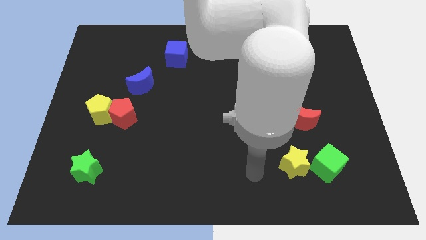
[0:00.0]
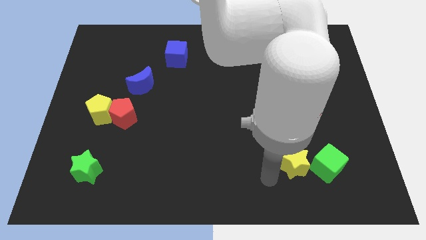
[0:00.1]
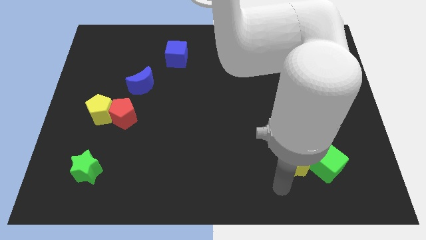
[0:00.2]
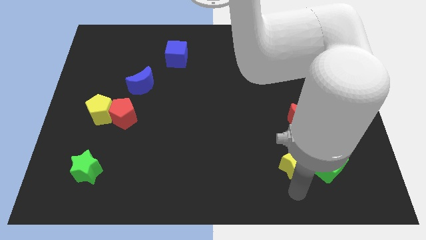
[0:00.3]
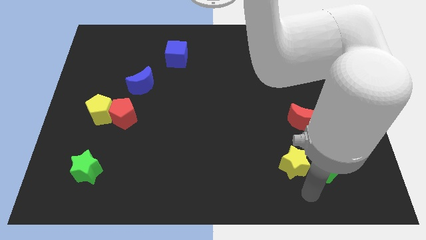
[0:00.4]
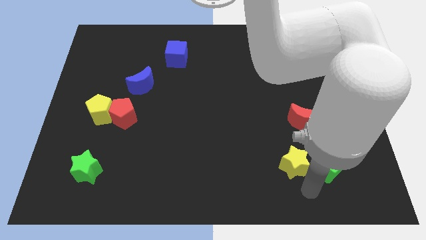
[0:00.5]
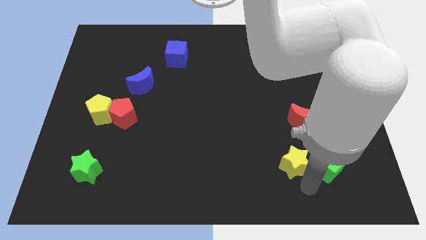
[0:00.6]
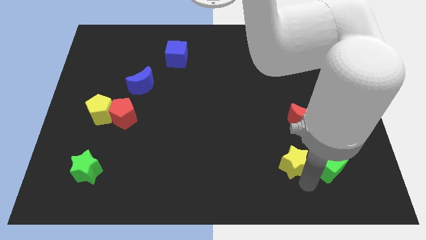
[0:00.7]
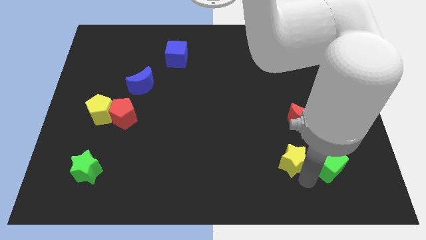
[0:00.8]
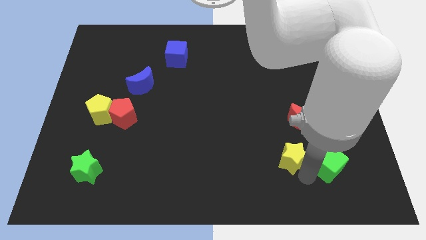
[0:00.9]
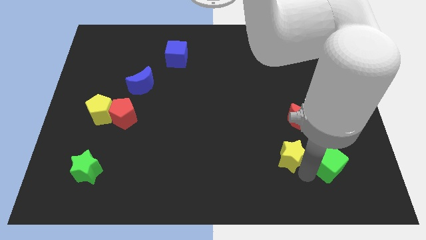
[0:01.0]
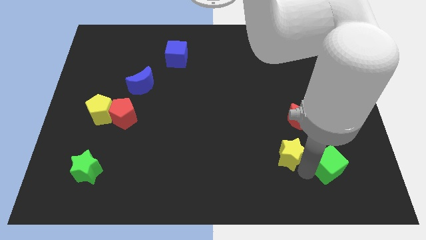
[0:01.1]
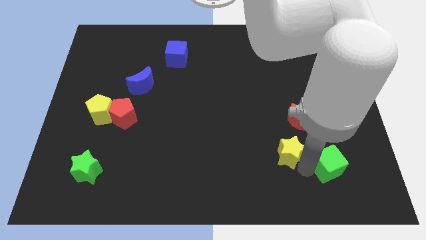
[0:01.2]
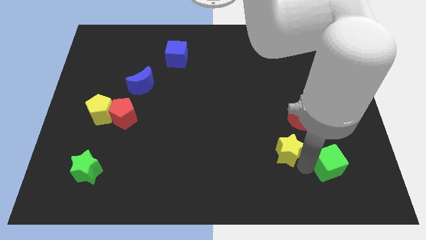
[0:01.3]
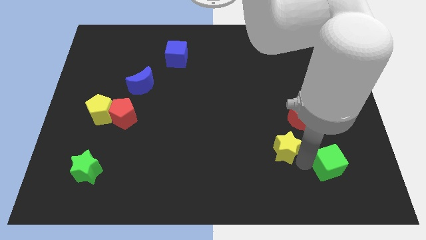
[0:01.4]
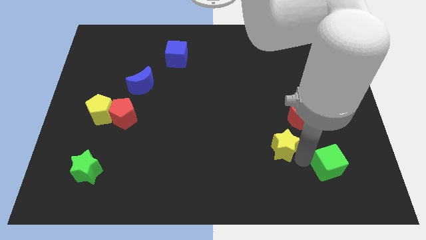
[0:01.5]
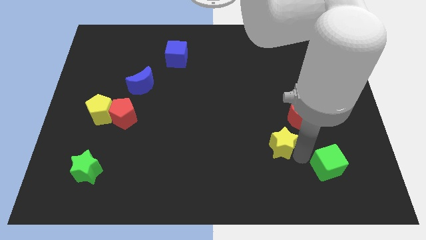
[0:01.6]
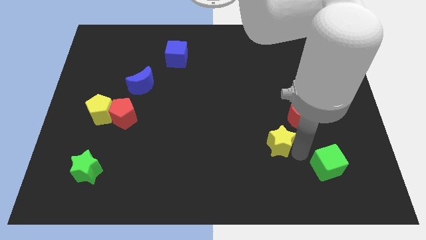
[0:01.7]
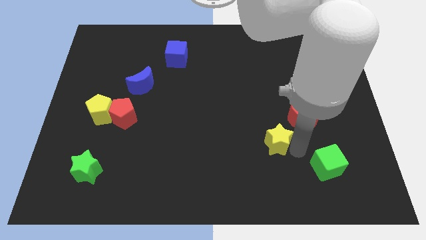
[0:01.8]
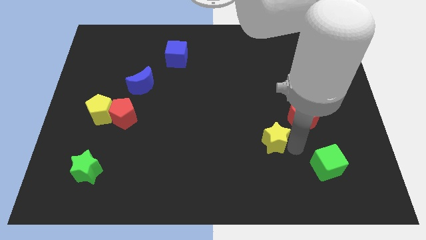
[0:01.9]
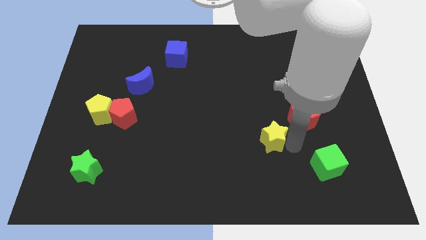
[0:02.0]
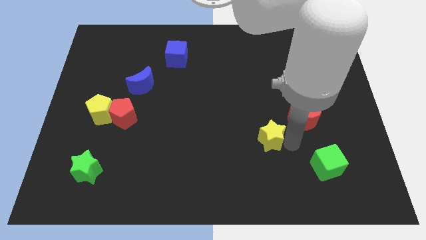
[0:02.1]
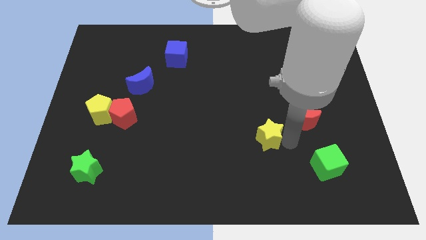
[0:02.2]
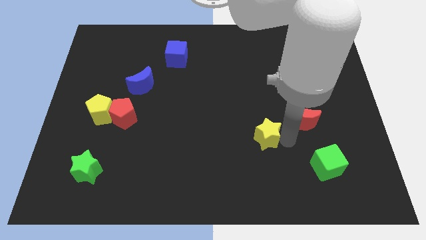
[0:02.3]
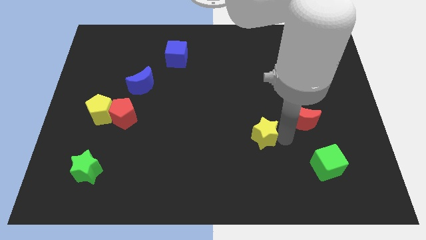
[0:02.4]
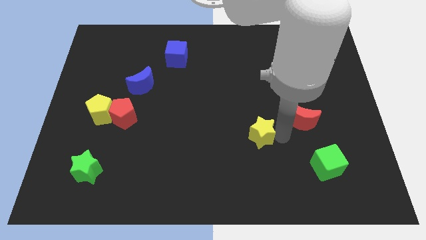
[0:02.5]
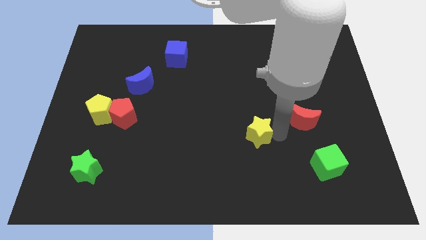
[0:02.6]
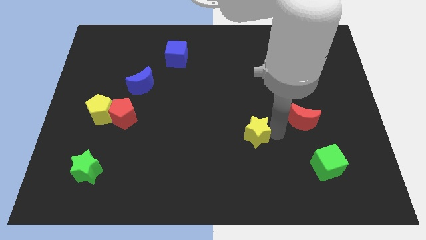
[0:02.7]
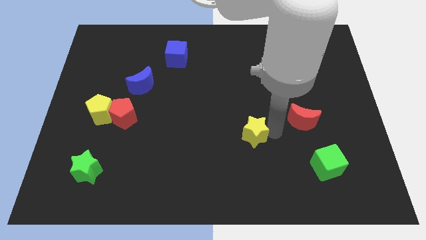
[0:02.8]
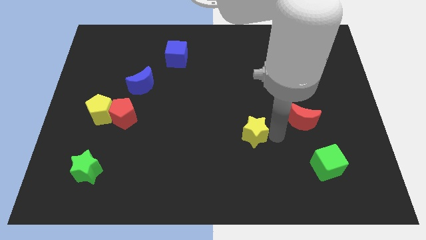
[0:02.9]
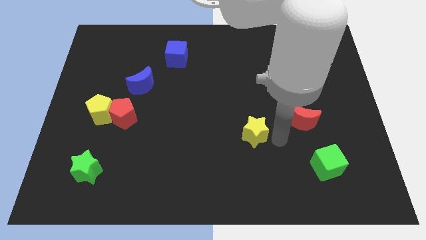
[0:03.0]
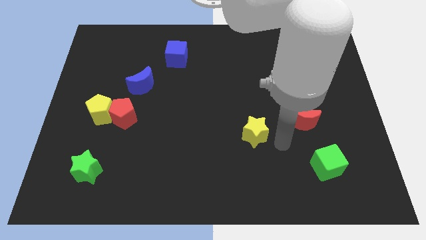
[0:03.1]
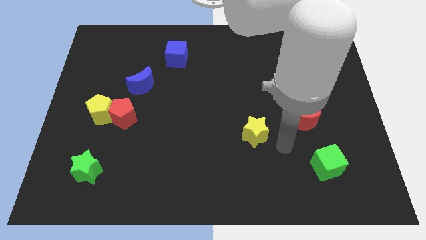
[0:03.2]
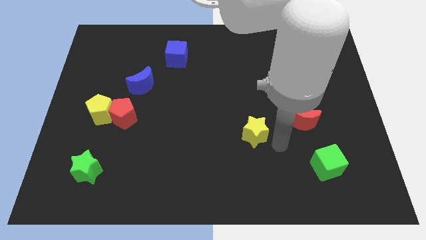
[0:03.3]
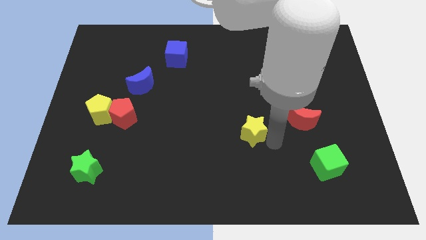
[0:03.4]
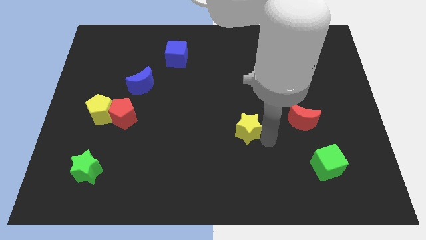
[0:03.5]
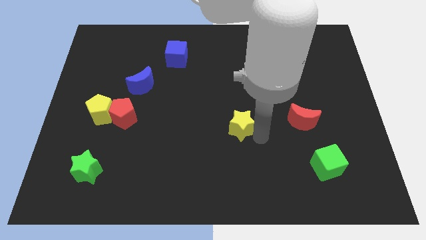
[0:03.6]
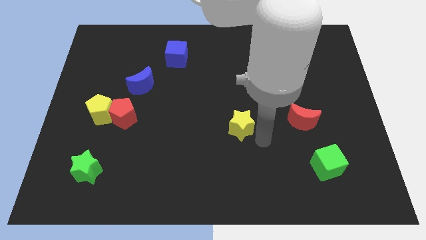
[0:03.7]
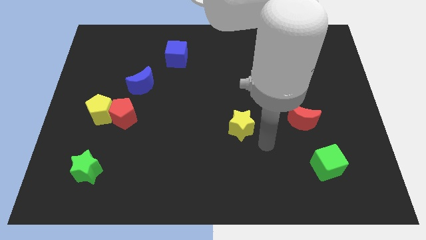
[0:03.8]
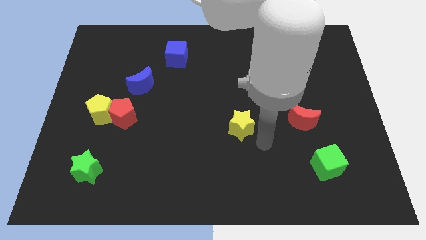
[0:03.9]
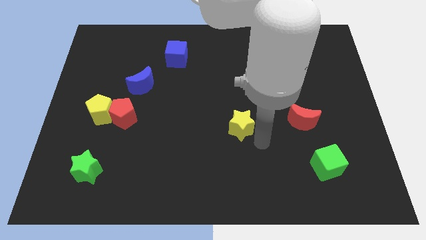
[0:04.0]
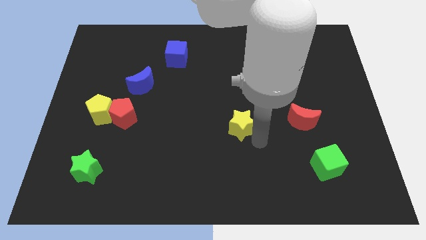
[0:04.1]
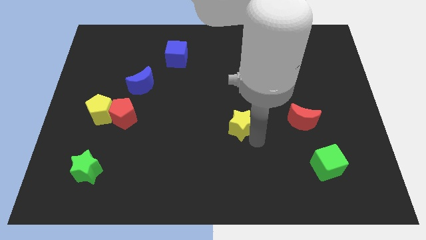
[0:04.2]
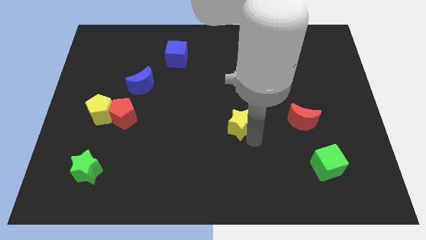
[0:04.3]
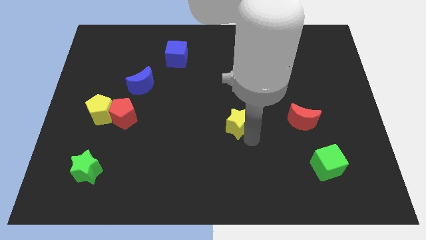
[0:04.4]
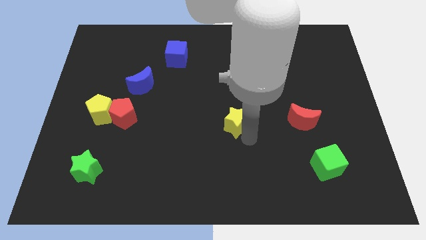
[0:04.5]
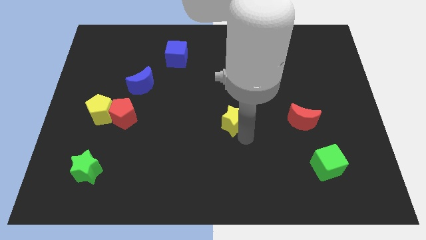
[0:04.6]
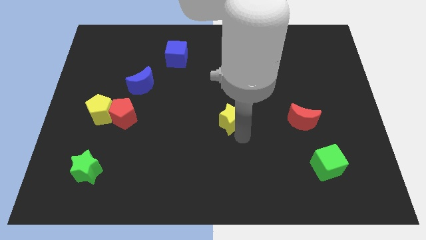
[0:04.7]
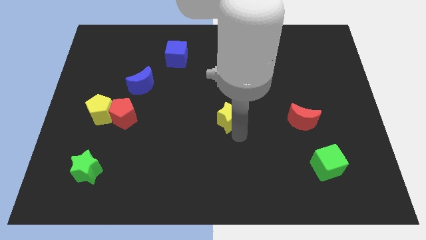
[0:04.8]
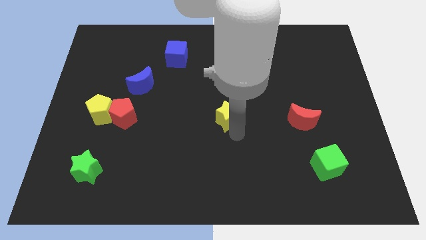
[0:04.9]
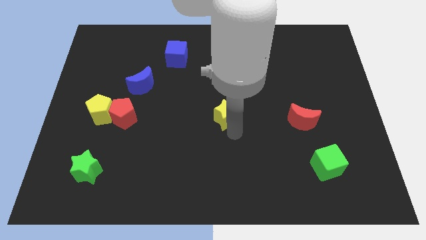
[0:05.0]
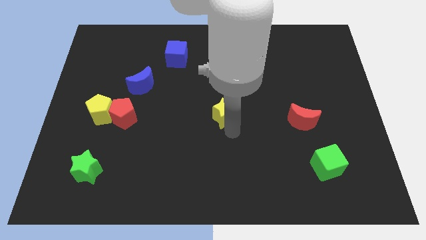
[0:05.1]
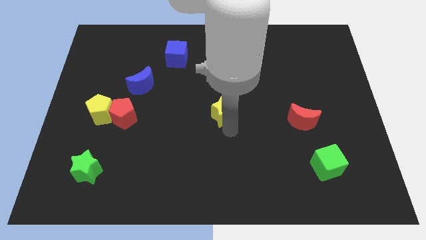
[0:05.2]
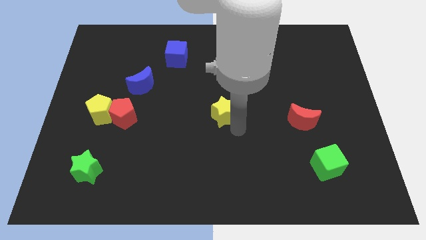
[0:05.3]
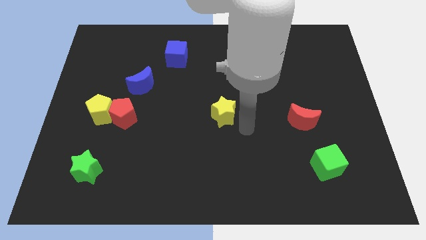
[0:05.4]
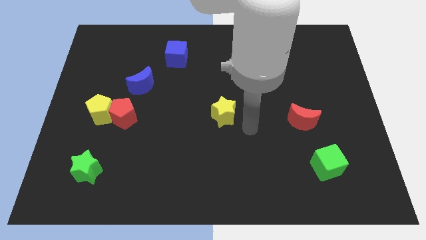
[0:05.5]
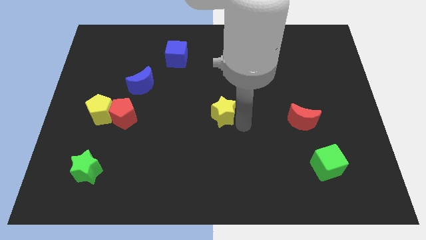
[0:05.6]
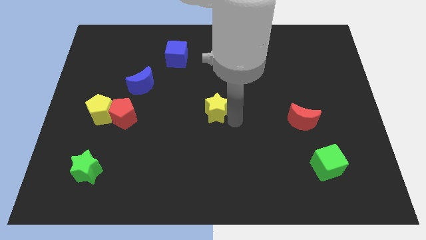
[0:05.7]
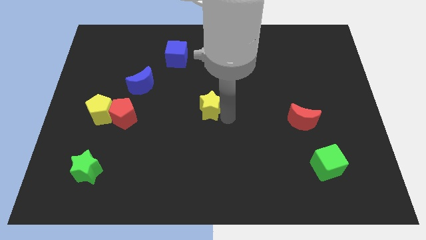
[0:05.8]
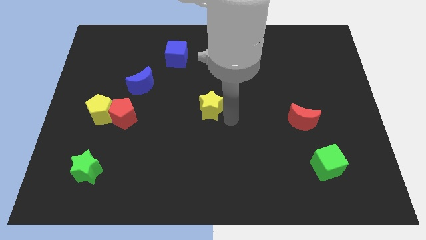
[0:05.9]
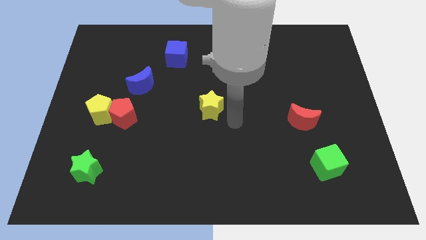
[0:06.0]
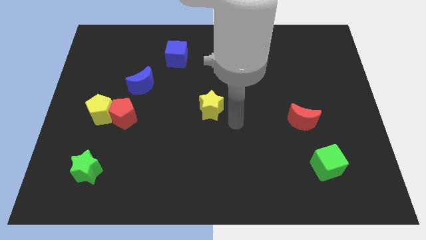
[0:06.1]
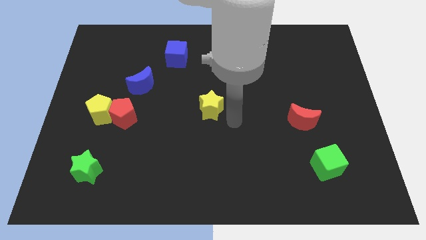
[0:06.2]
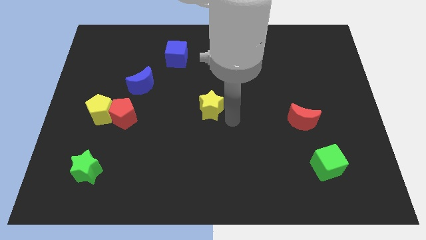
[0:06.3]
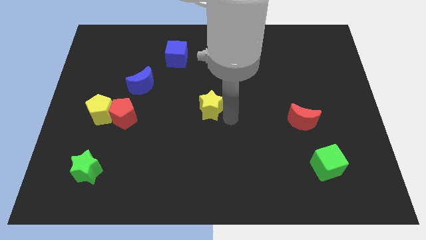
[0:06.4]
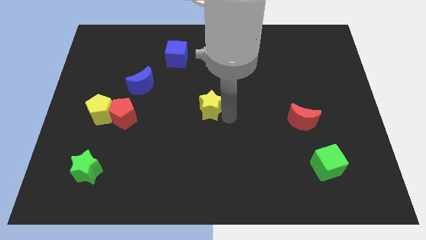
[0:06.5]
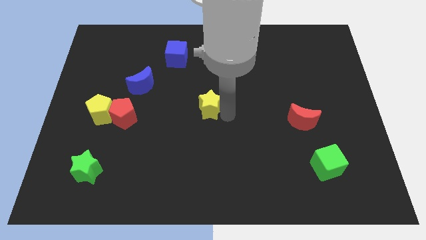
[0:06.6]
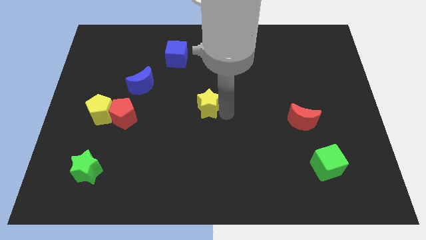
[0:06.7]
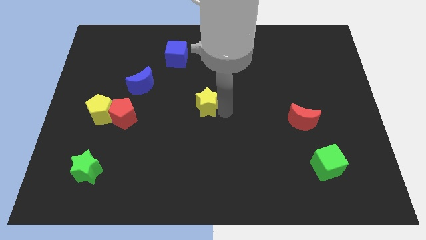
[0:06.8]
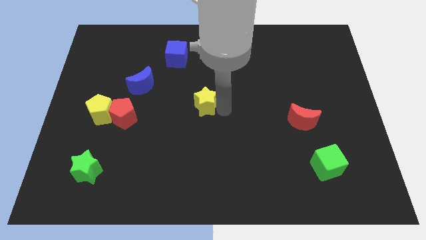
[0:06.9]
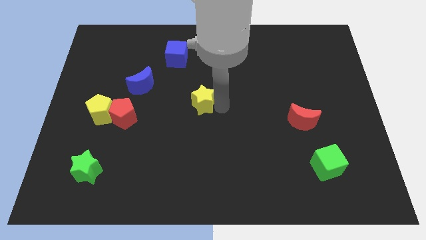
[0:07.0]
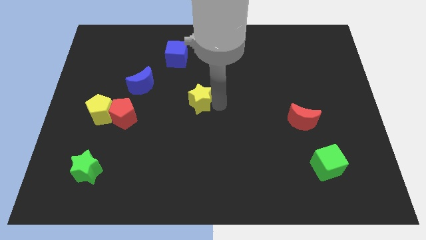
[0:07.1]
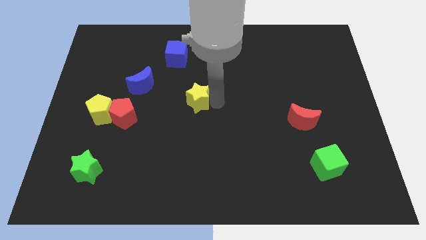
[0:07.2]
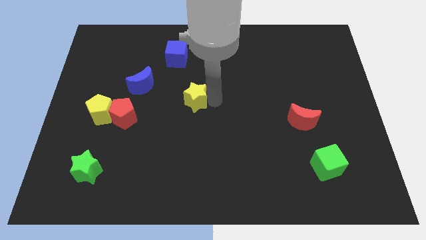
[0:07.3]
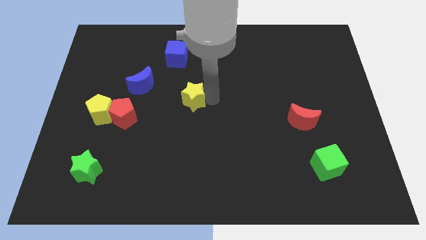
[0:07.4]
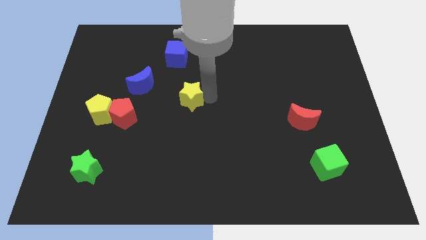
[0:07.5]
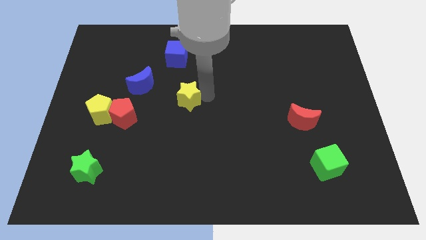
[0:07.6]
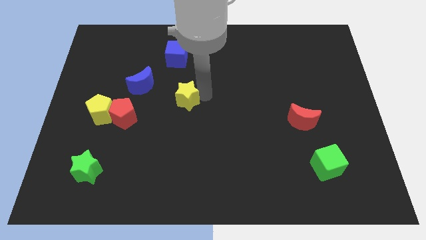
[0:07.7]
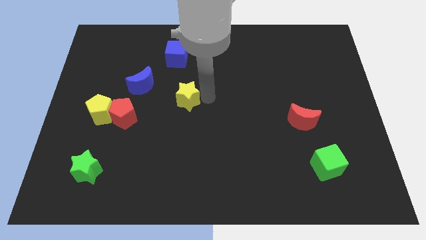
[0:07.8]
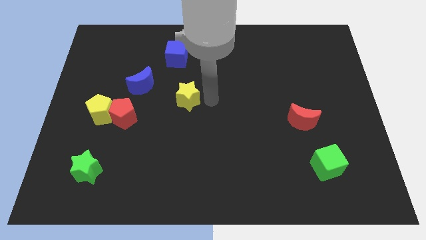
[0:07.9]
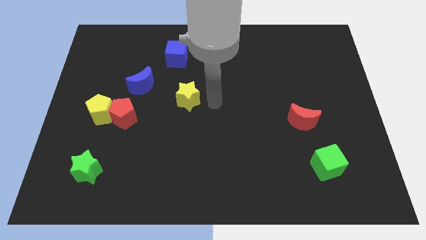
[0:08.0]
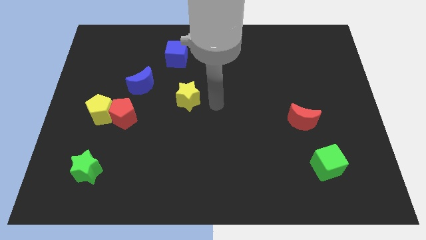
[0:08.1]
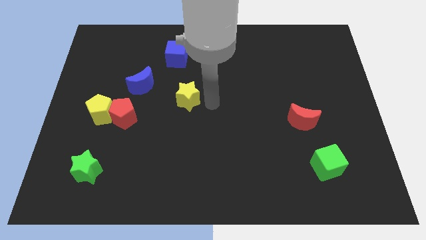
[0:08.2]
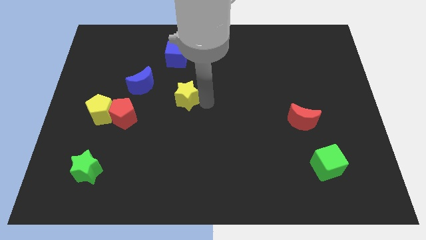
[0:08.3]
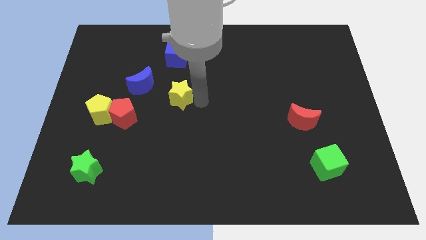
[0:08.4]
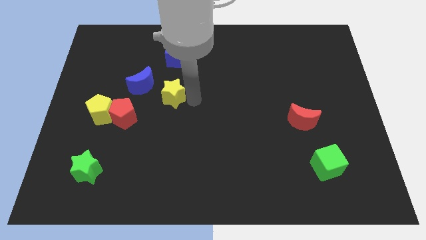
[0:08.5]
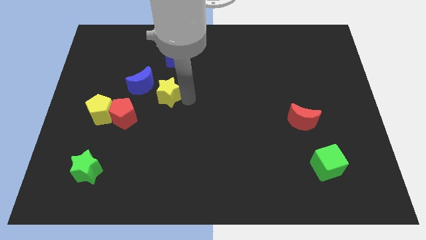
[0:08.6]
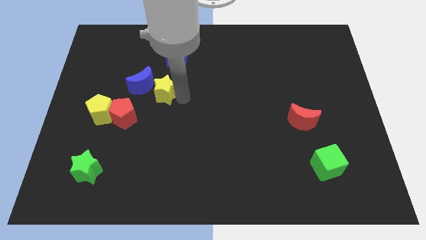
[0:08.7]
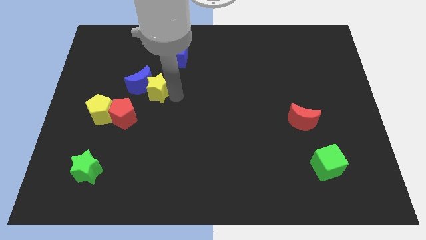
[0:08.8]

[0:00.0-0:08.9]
push the yellow star towards the blue moon
